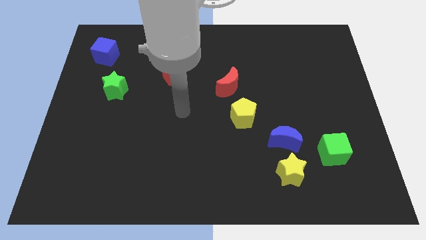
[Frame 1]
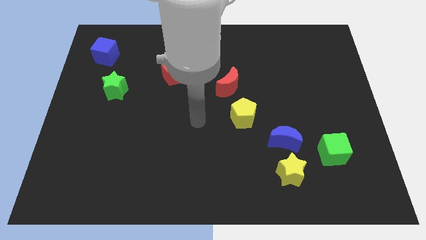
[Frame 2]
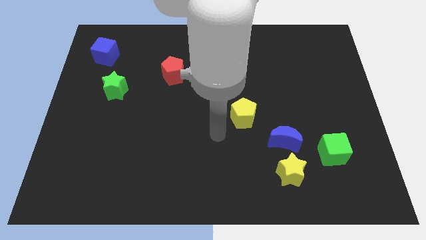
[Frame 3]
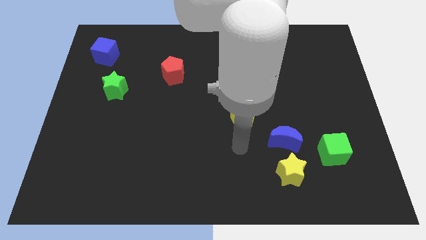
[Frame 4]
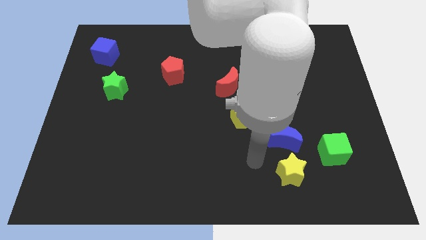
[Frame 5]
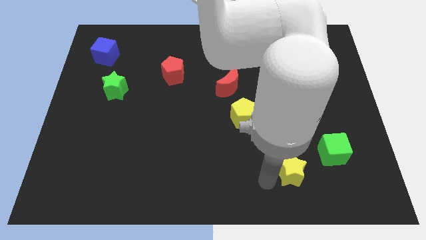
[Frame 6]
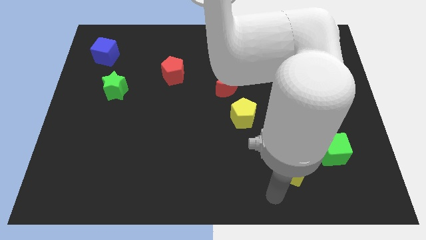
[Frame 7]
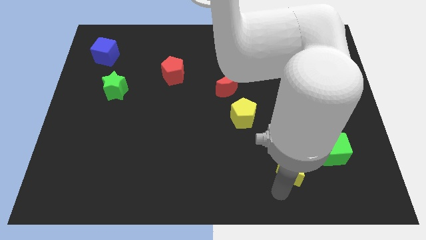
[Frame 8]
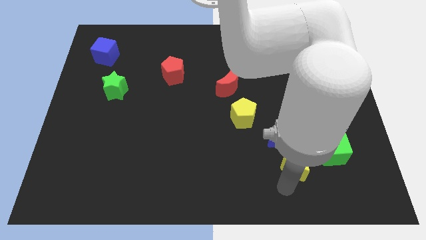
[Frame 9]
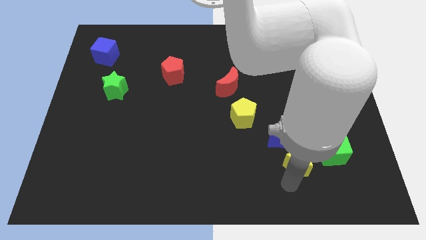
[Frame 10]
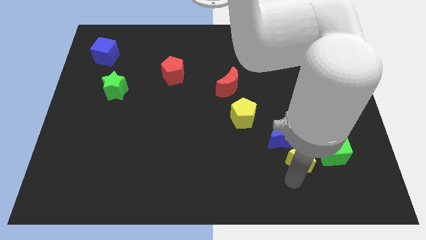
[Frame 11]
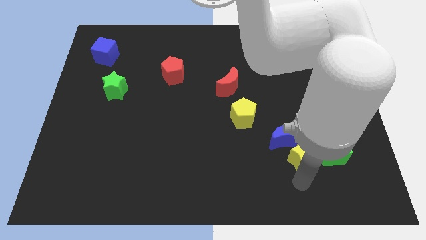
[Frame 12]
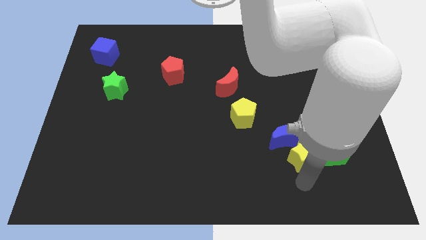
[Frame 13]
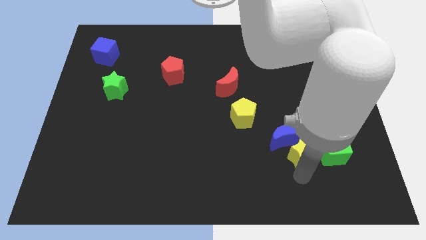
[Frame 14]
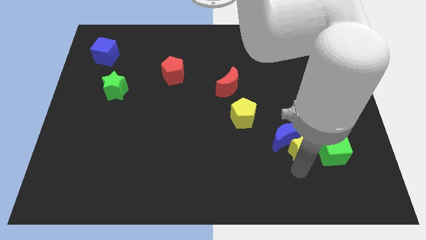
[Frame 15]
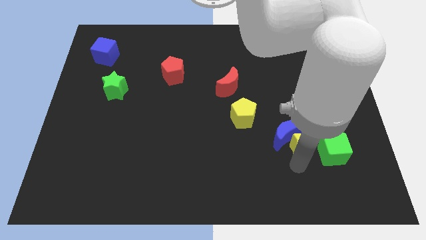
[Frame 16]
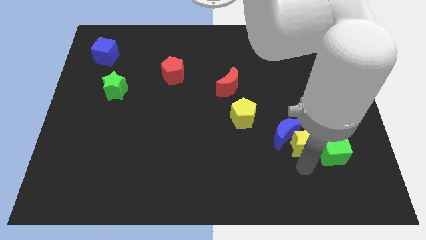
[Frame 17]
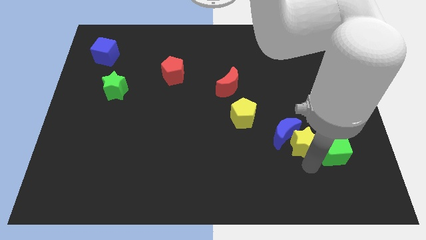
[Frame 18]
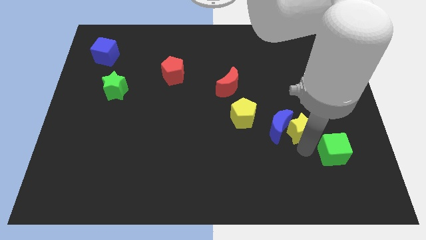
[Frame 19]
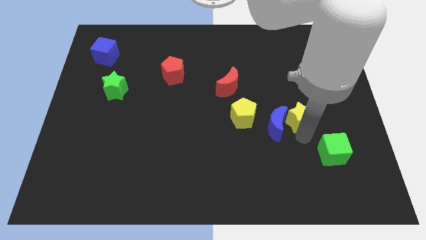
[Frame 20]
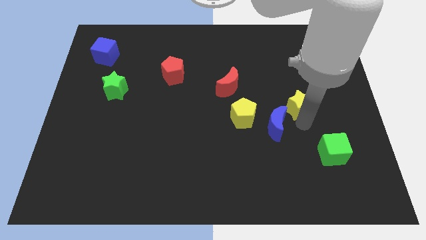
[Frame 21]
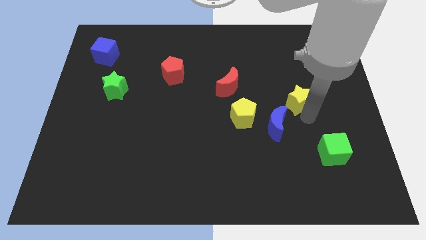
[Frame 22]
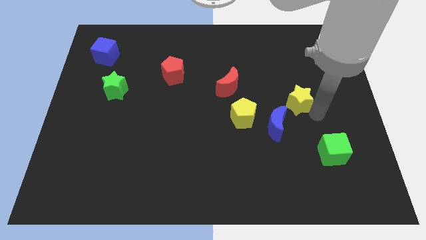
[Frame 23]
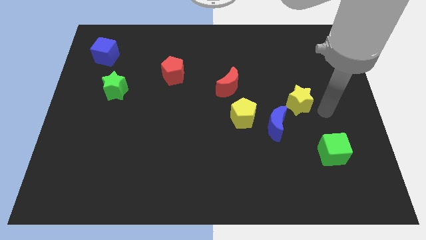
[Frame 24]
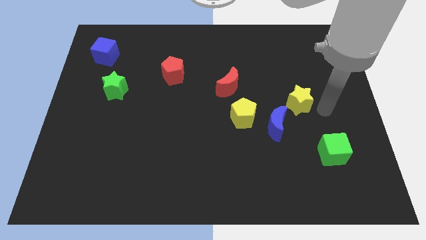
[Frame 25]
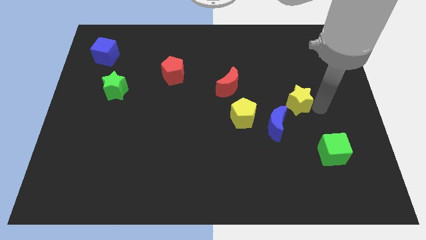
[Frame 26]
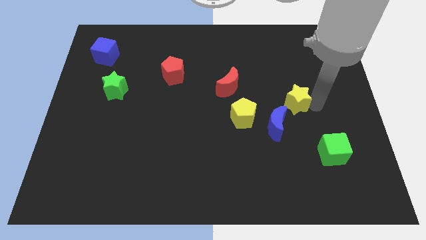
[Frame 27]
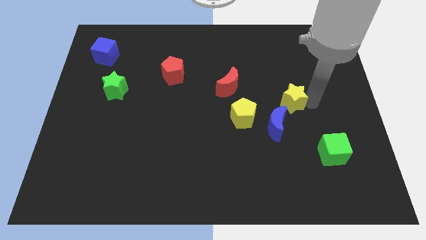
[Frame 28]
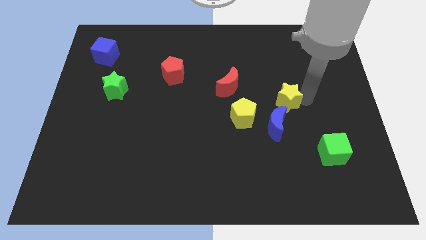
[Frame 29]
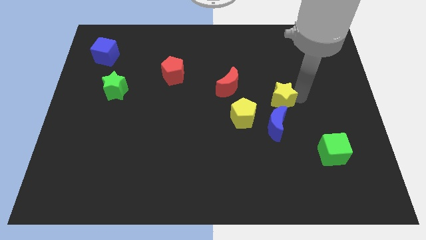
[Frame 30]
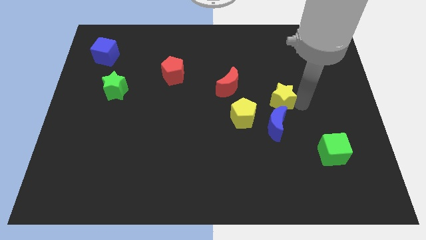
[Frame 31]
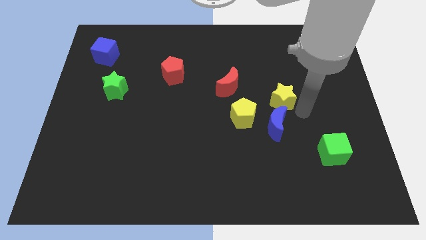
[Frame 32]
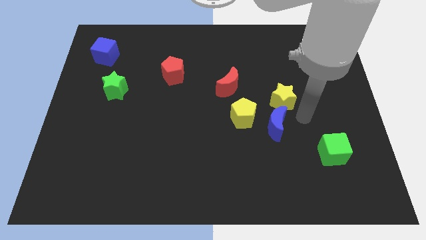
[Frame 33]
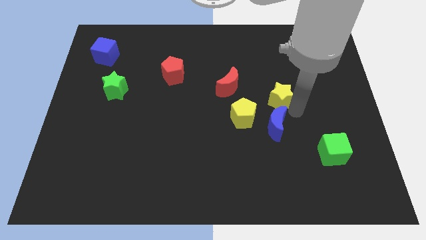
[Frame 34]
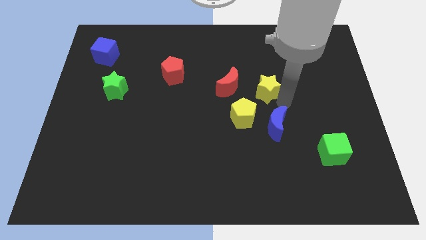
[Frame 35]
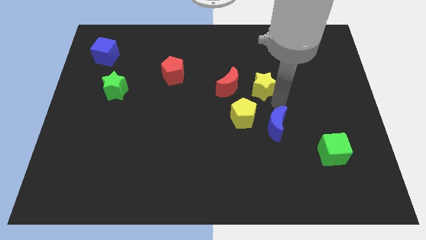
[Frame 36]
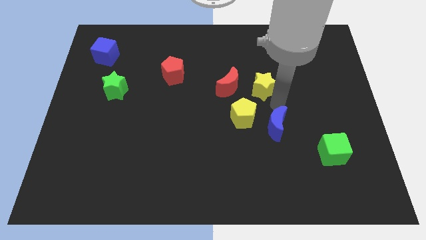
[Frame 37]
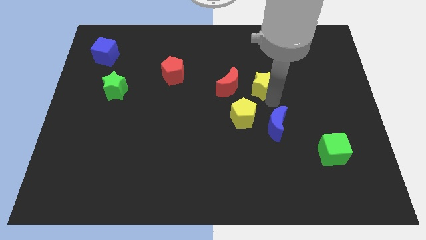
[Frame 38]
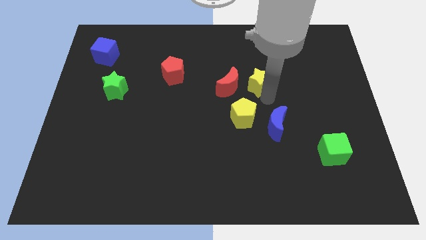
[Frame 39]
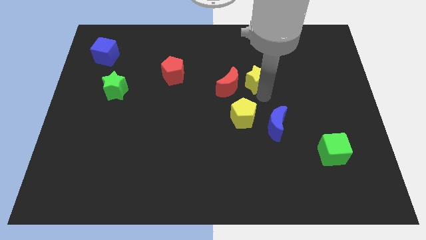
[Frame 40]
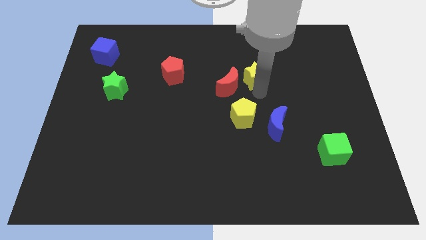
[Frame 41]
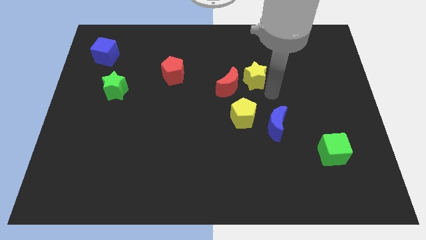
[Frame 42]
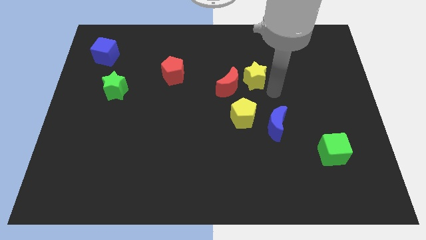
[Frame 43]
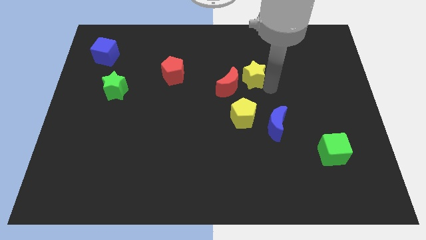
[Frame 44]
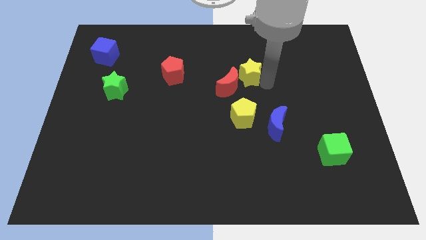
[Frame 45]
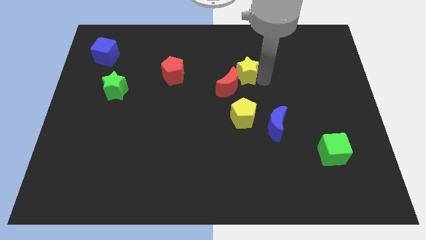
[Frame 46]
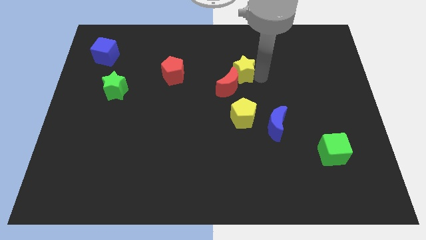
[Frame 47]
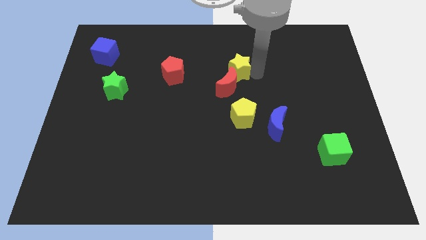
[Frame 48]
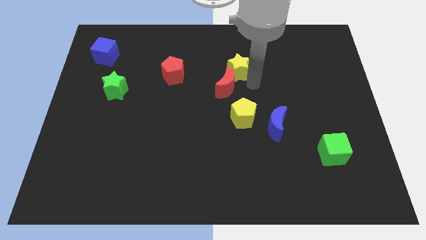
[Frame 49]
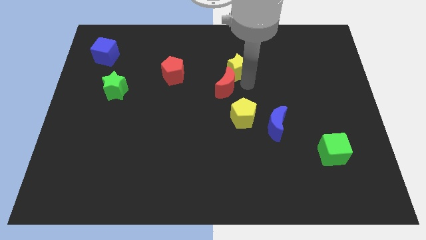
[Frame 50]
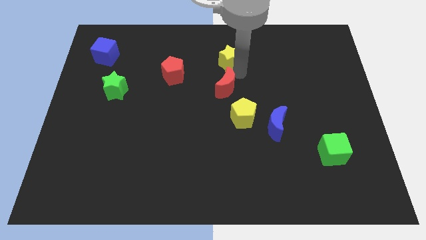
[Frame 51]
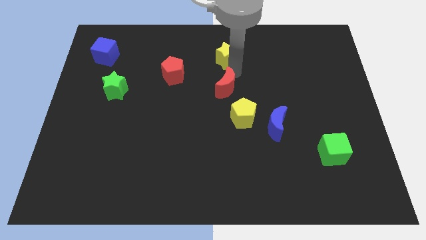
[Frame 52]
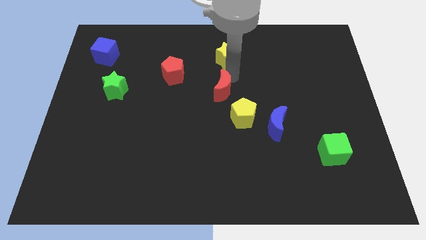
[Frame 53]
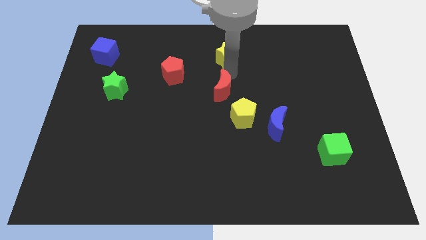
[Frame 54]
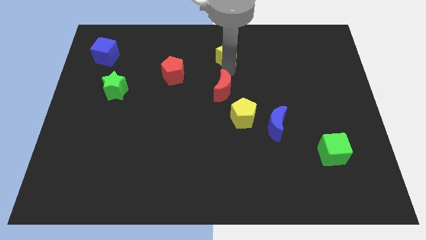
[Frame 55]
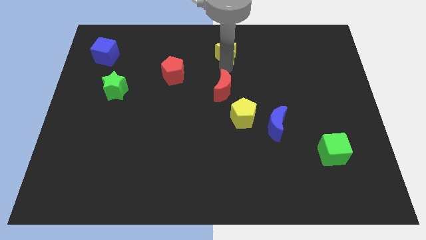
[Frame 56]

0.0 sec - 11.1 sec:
push the yellow star to the top side

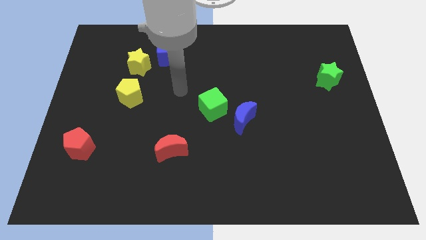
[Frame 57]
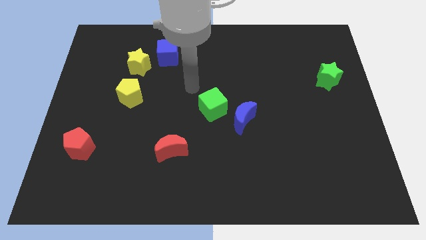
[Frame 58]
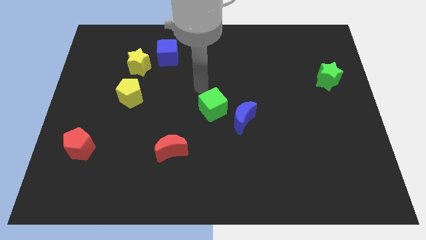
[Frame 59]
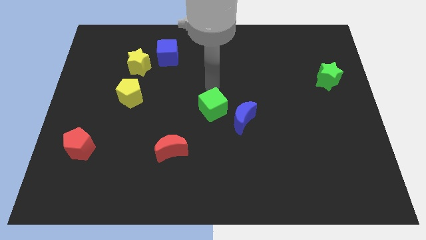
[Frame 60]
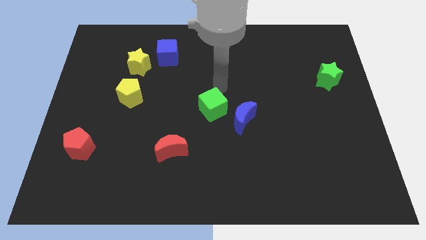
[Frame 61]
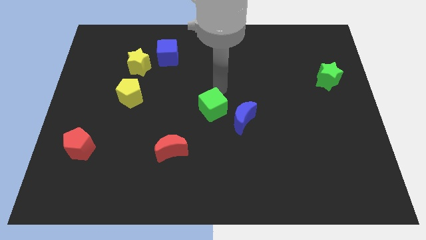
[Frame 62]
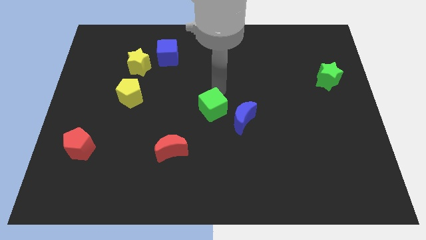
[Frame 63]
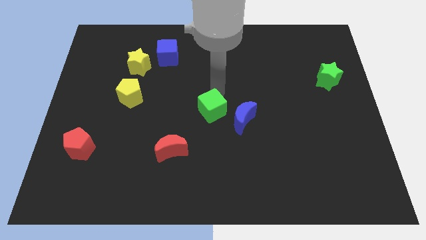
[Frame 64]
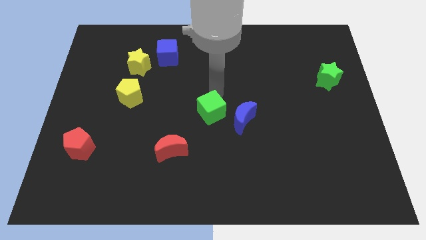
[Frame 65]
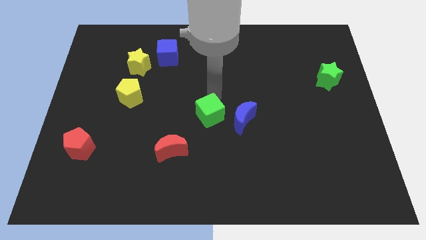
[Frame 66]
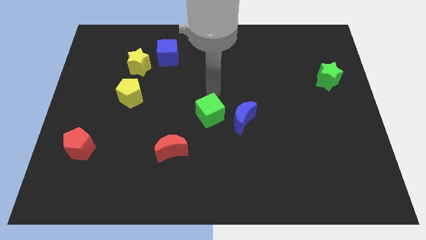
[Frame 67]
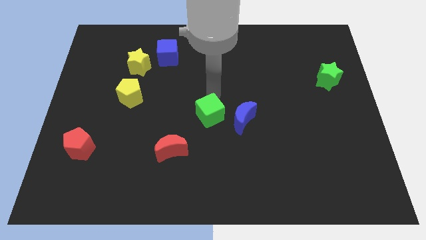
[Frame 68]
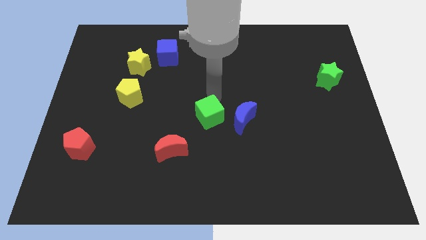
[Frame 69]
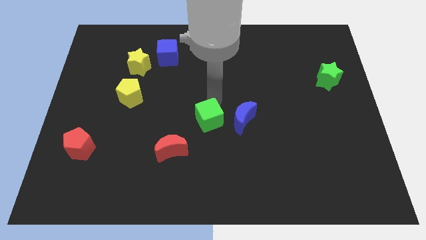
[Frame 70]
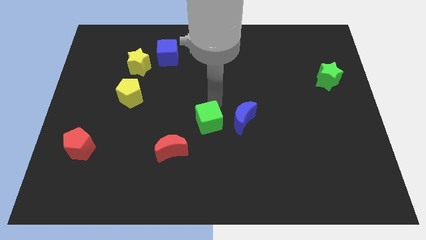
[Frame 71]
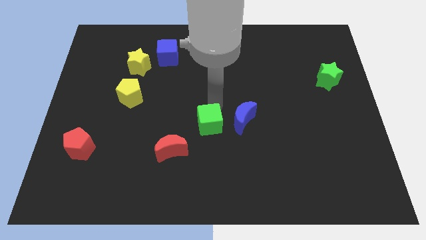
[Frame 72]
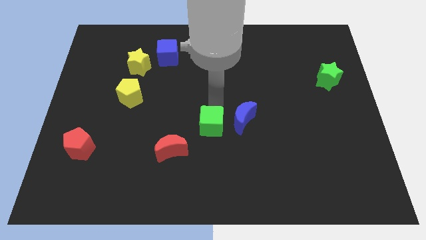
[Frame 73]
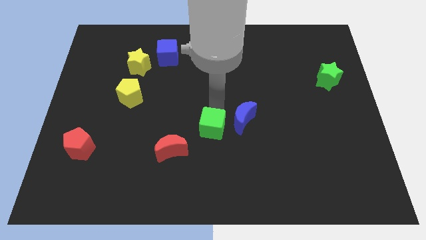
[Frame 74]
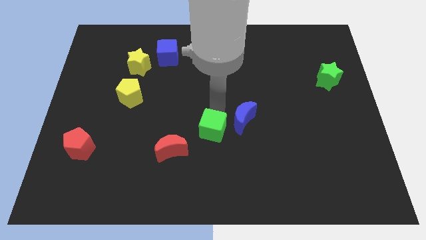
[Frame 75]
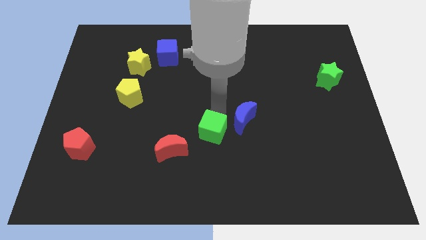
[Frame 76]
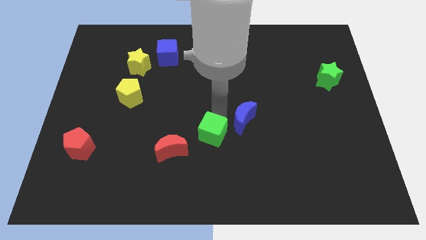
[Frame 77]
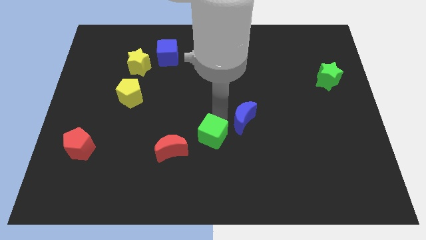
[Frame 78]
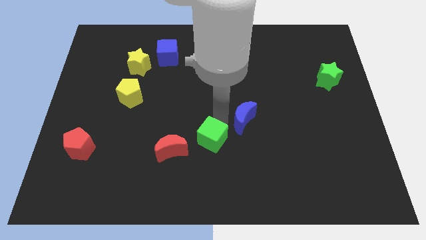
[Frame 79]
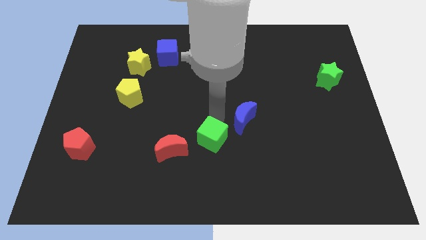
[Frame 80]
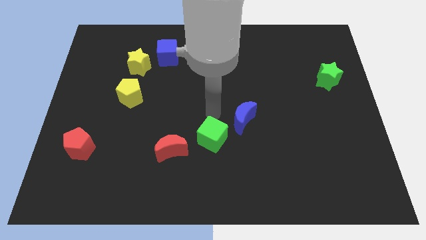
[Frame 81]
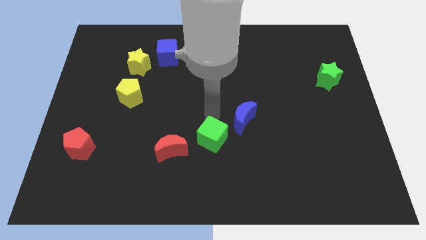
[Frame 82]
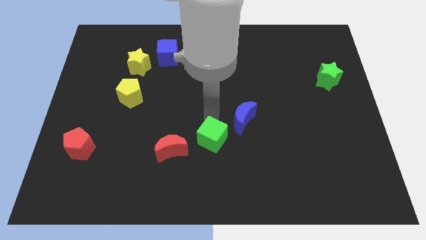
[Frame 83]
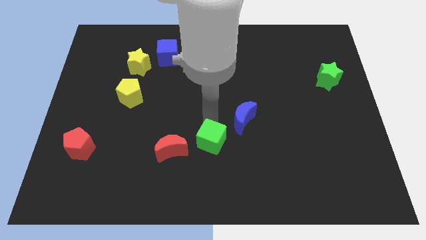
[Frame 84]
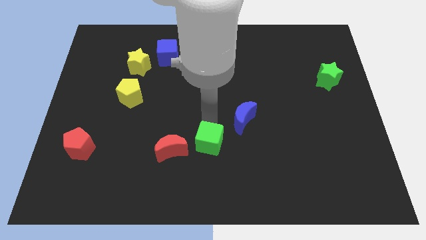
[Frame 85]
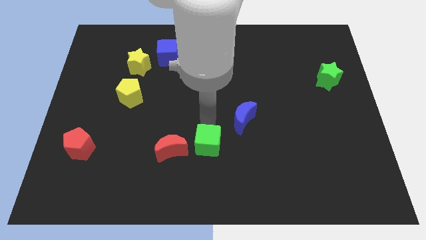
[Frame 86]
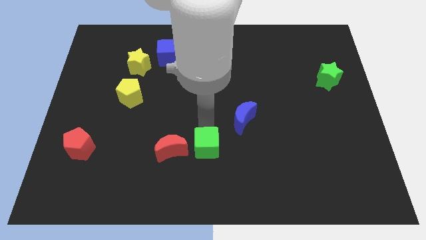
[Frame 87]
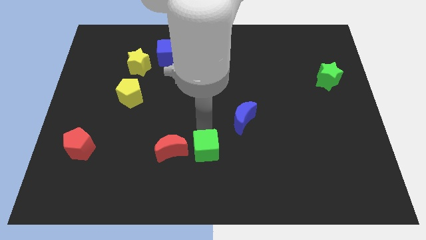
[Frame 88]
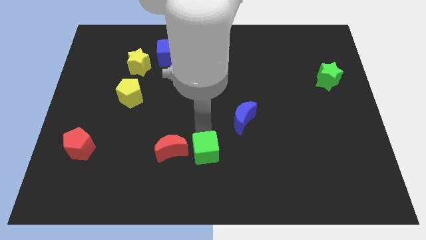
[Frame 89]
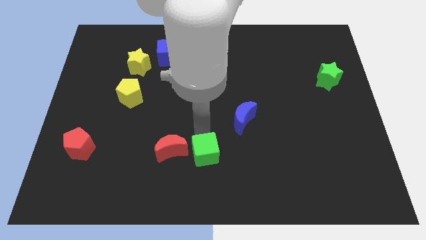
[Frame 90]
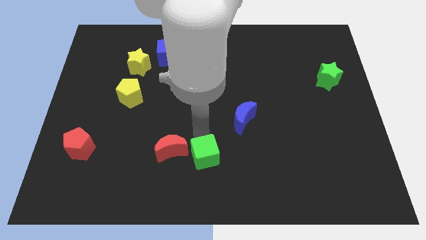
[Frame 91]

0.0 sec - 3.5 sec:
slide the green cube to the bottom
